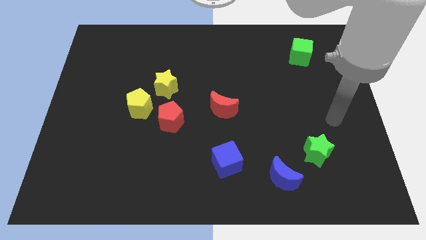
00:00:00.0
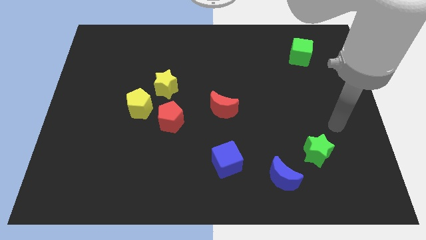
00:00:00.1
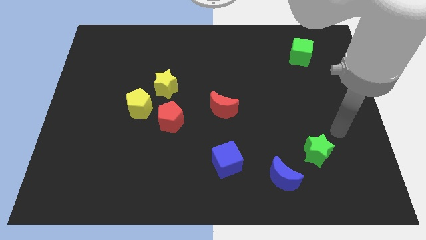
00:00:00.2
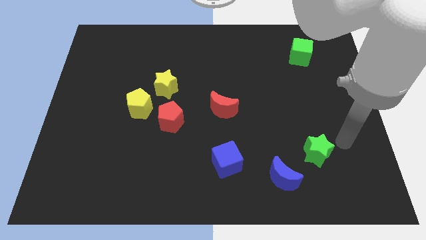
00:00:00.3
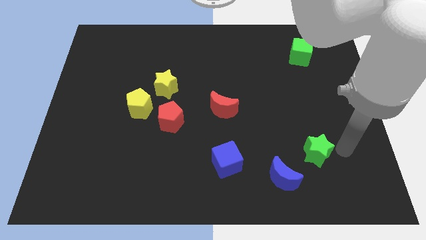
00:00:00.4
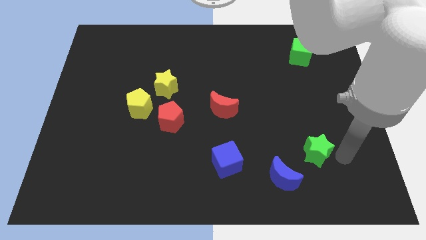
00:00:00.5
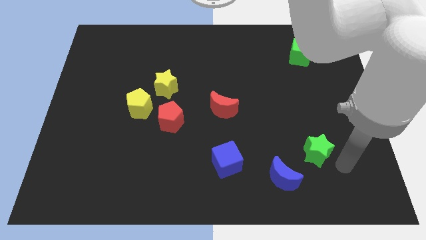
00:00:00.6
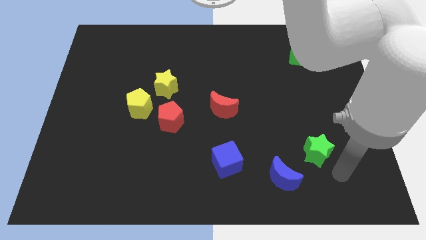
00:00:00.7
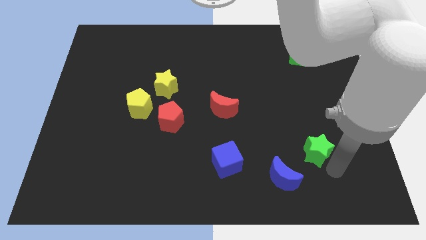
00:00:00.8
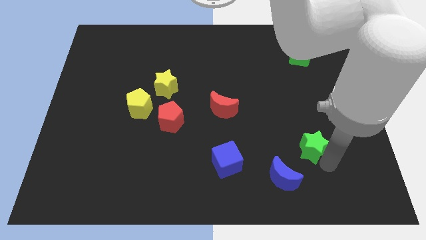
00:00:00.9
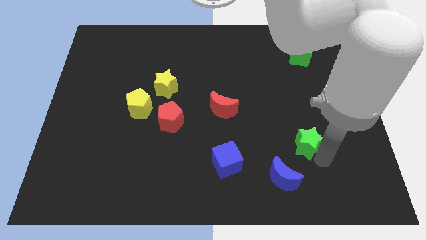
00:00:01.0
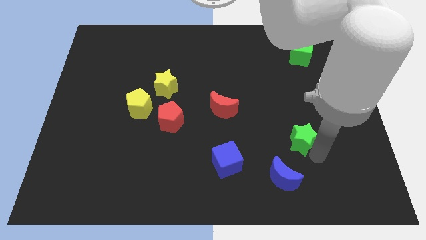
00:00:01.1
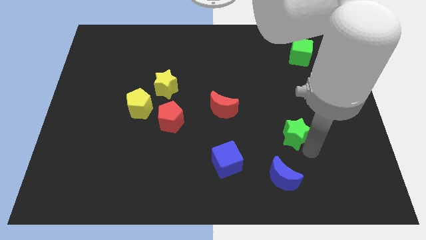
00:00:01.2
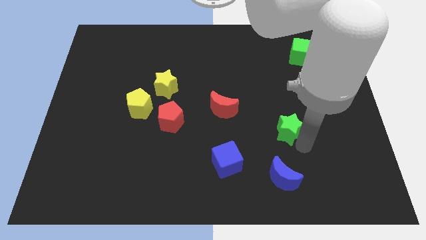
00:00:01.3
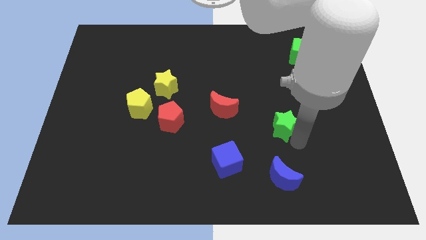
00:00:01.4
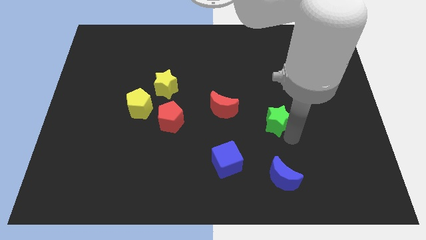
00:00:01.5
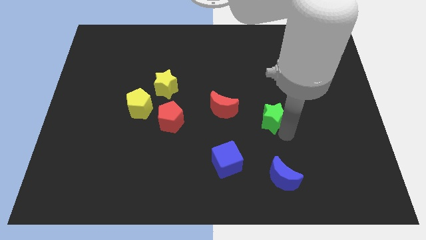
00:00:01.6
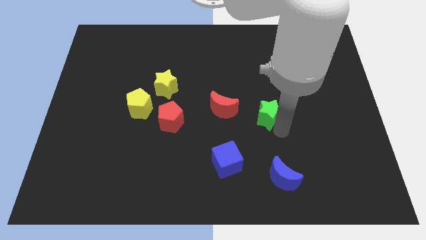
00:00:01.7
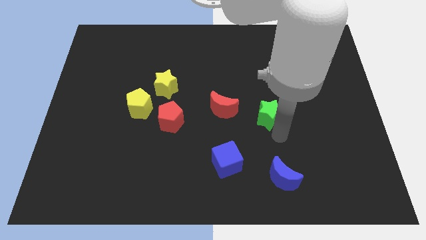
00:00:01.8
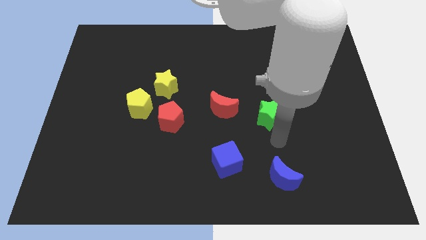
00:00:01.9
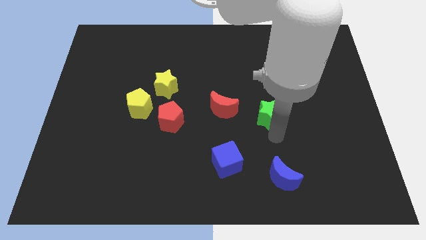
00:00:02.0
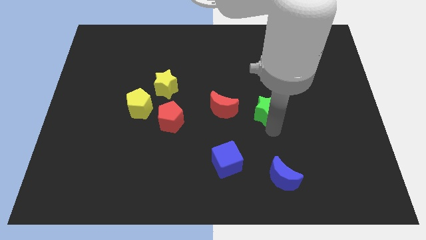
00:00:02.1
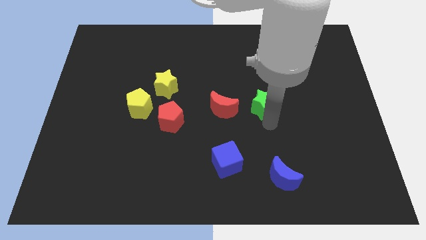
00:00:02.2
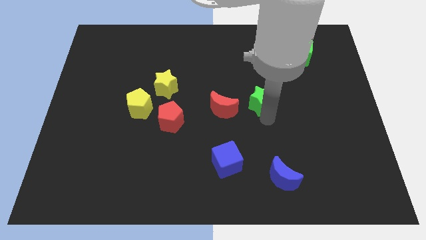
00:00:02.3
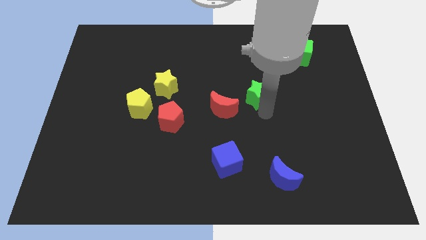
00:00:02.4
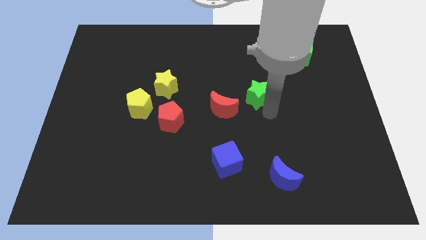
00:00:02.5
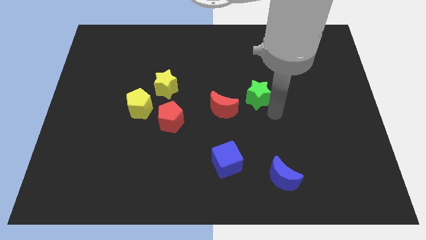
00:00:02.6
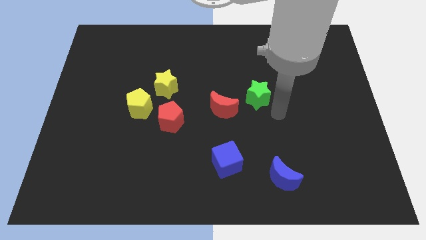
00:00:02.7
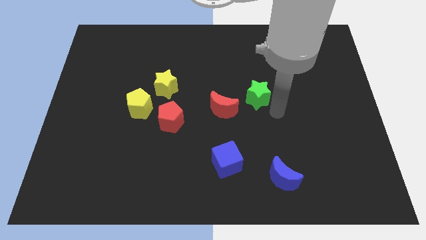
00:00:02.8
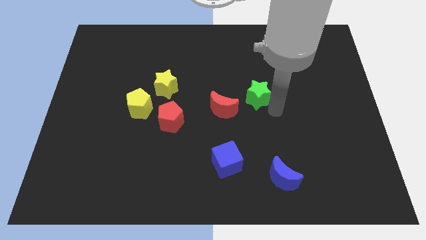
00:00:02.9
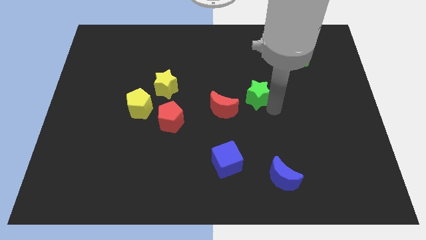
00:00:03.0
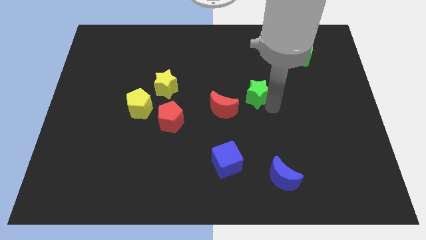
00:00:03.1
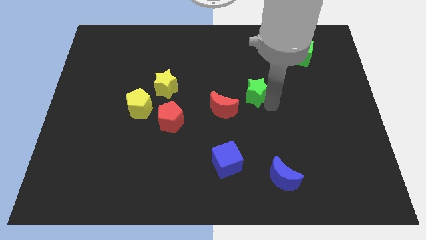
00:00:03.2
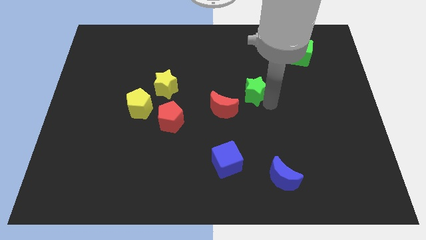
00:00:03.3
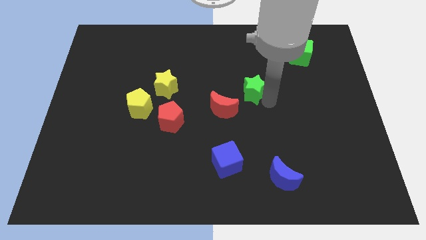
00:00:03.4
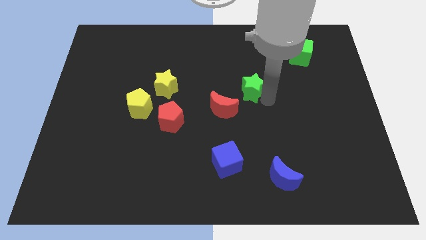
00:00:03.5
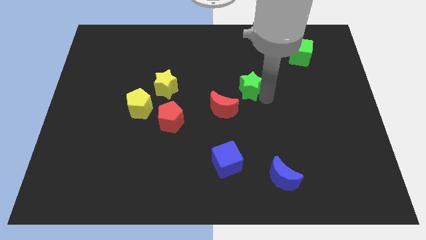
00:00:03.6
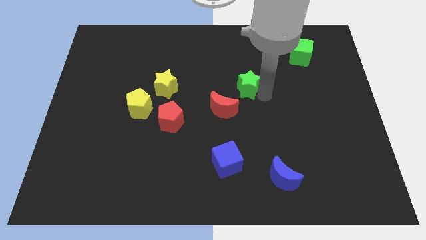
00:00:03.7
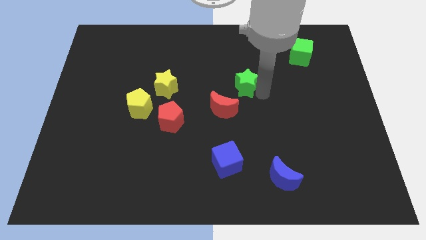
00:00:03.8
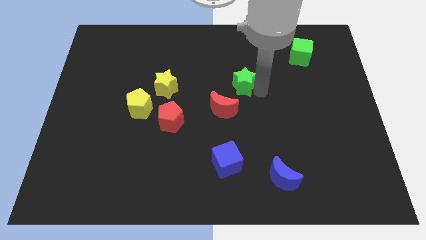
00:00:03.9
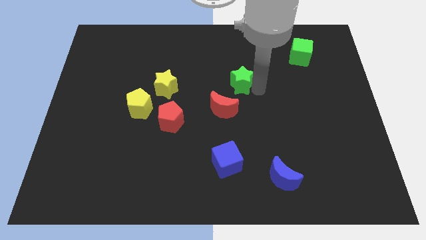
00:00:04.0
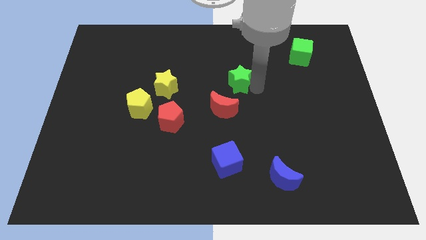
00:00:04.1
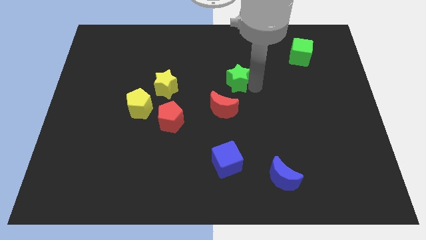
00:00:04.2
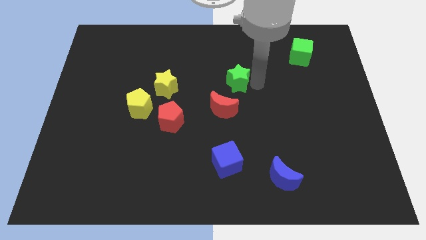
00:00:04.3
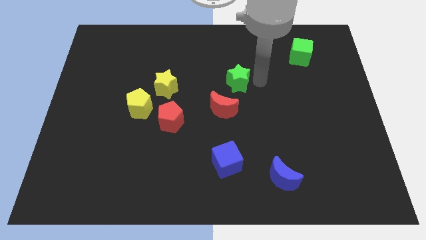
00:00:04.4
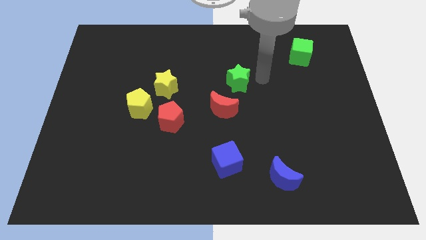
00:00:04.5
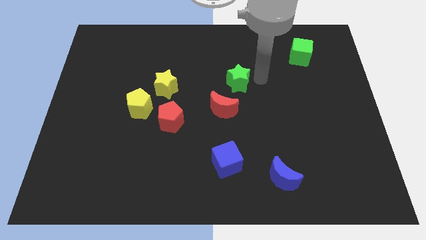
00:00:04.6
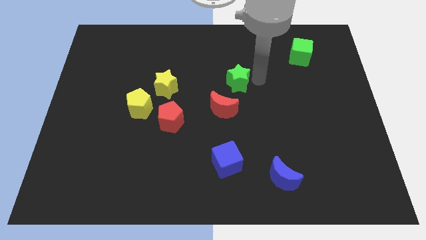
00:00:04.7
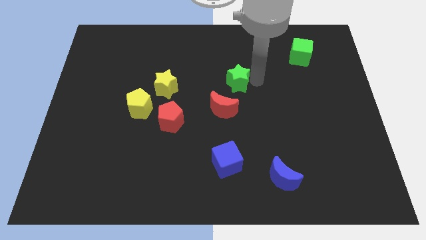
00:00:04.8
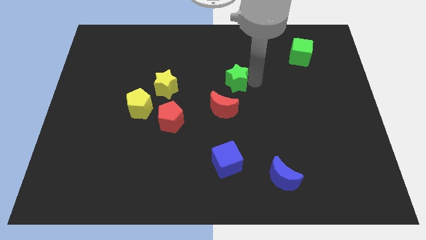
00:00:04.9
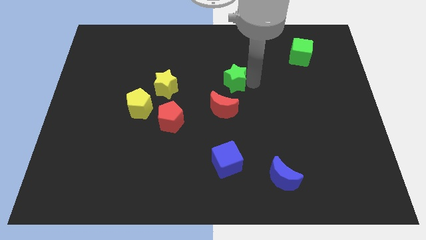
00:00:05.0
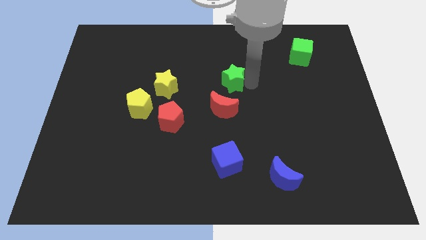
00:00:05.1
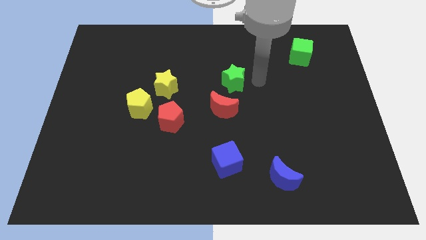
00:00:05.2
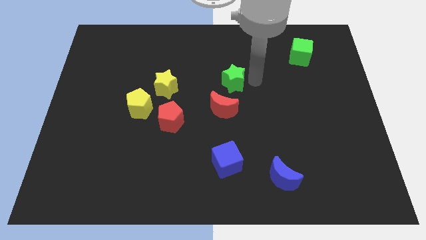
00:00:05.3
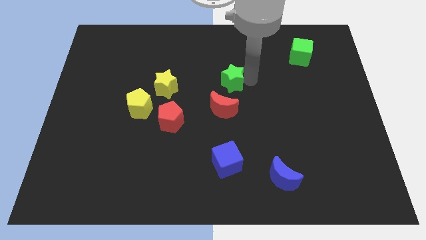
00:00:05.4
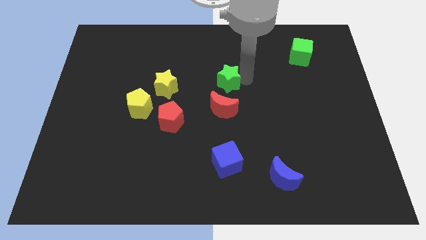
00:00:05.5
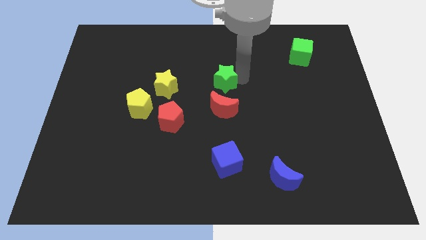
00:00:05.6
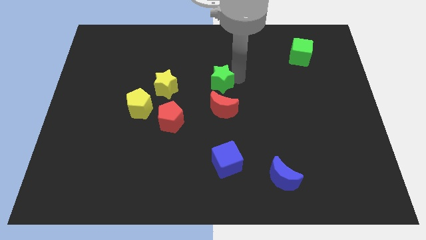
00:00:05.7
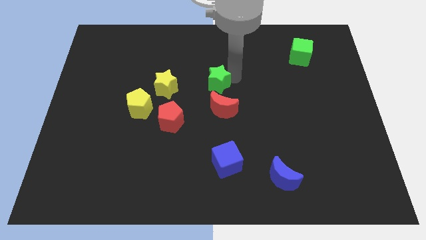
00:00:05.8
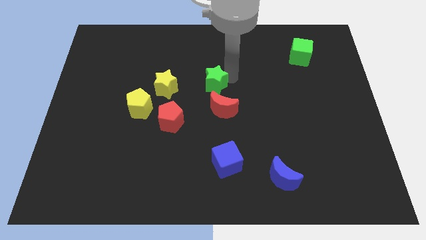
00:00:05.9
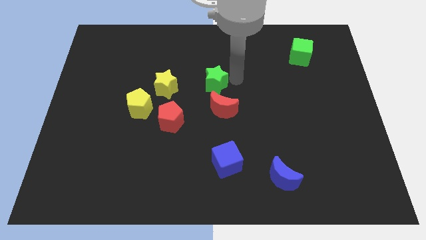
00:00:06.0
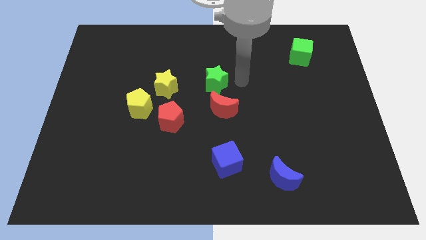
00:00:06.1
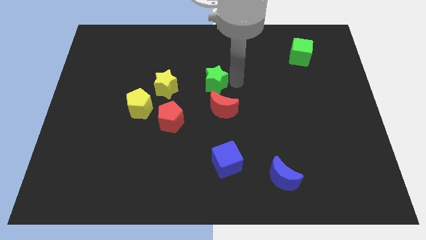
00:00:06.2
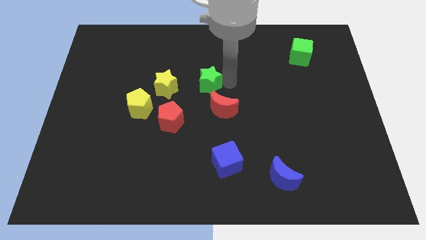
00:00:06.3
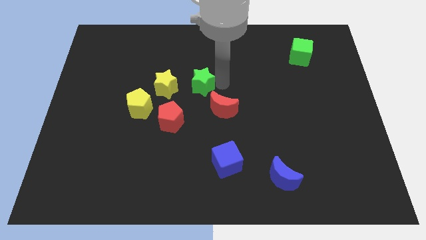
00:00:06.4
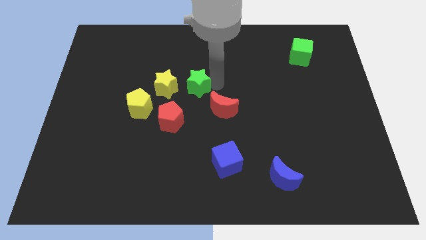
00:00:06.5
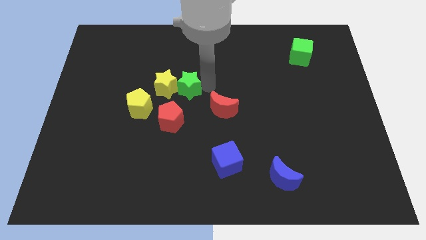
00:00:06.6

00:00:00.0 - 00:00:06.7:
slide the green star to the yellow star
